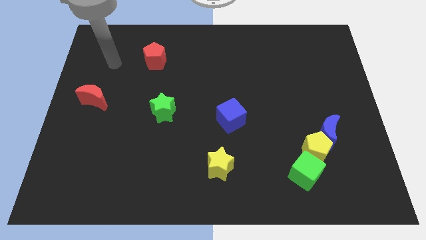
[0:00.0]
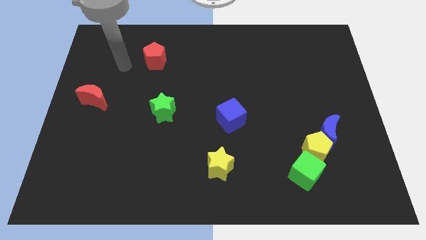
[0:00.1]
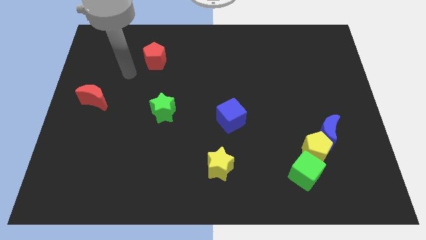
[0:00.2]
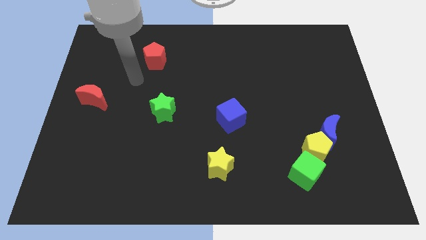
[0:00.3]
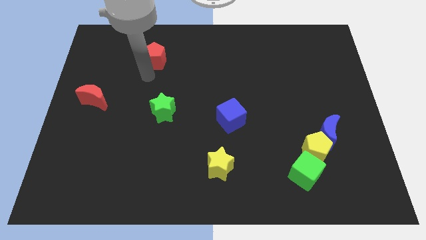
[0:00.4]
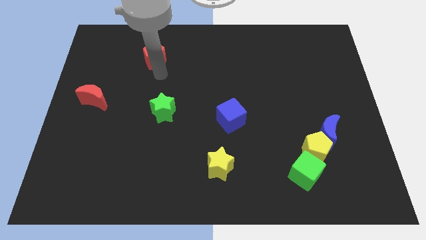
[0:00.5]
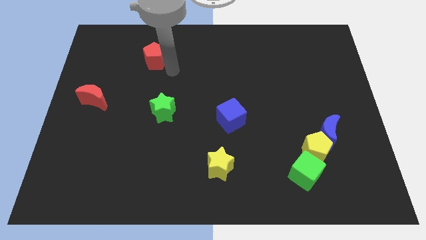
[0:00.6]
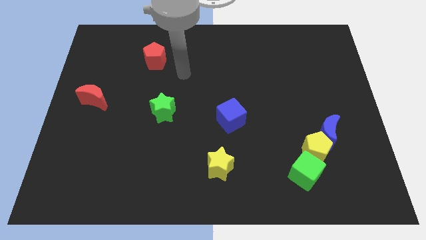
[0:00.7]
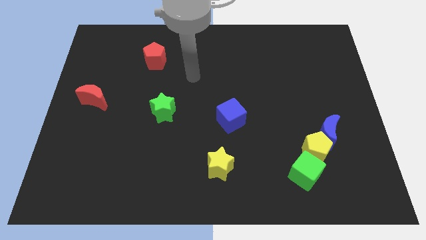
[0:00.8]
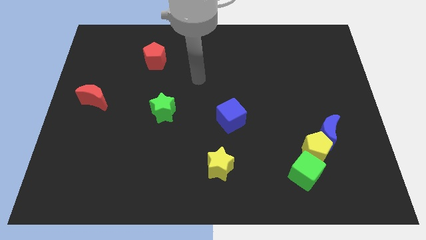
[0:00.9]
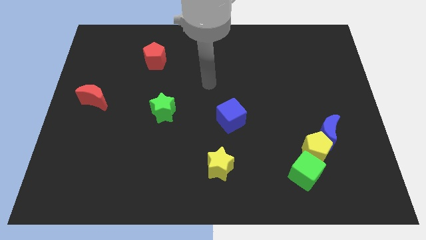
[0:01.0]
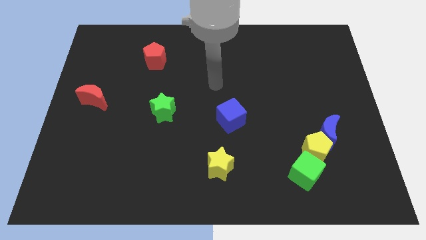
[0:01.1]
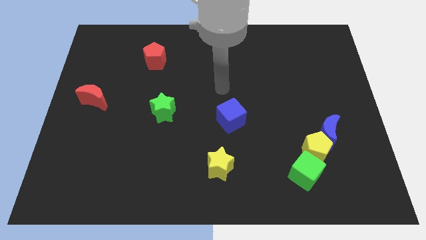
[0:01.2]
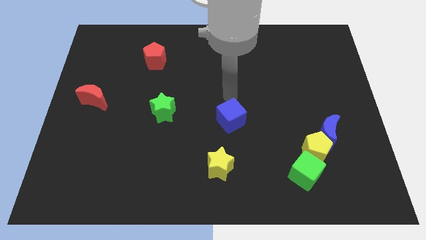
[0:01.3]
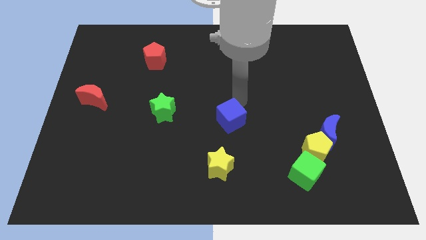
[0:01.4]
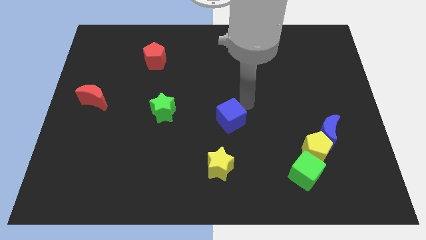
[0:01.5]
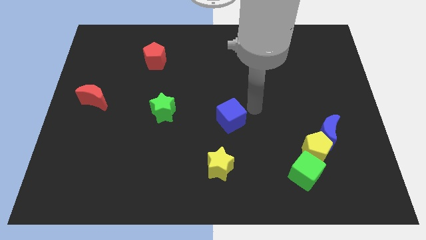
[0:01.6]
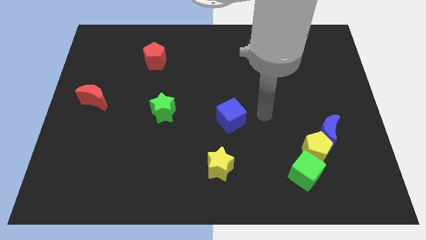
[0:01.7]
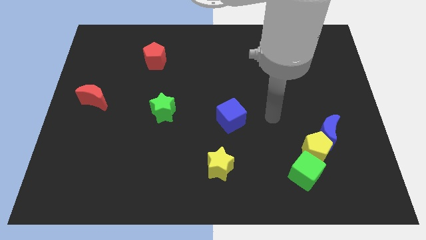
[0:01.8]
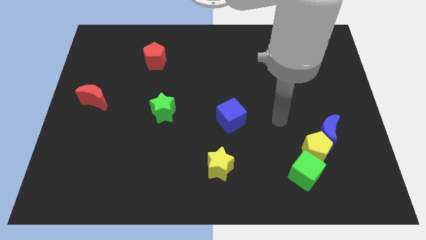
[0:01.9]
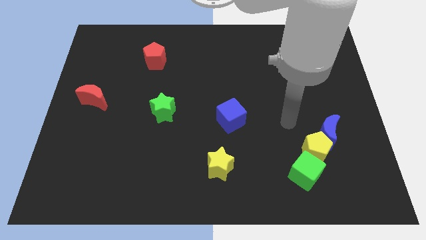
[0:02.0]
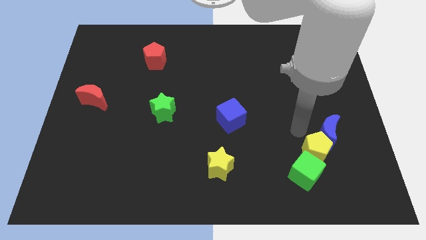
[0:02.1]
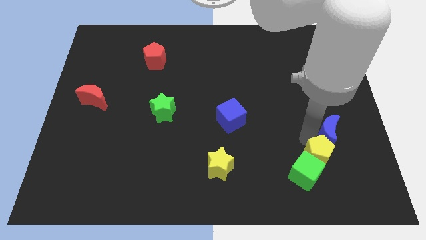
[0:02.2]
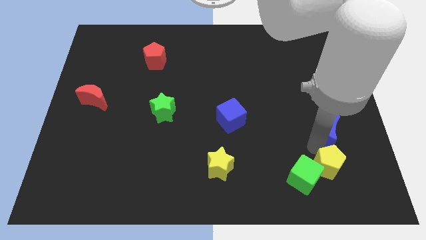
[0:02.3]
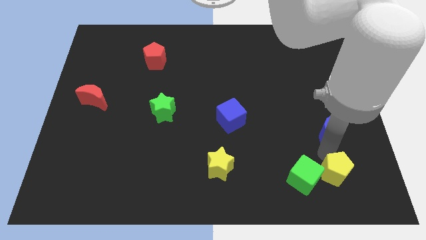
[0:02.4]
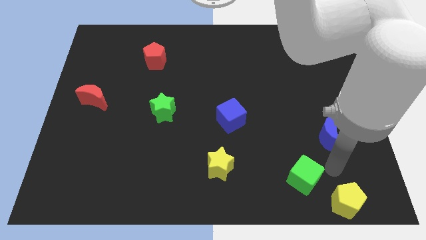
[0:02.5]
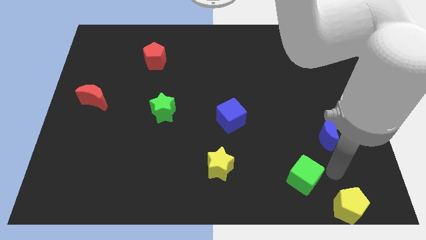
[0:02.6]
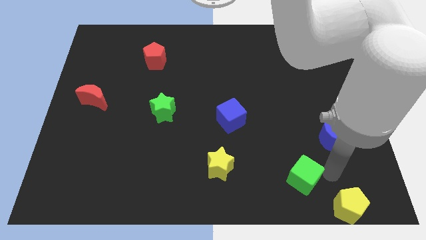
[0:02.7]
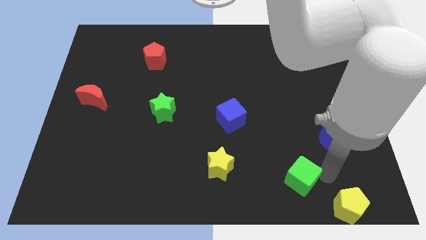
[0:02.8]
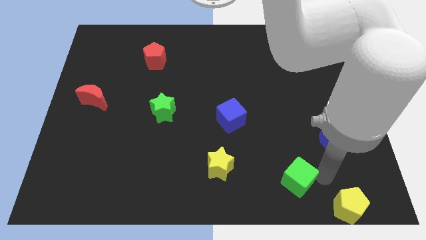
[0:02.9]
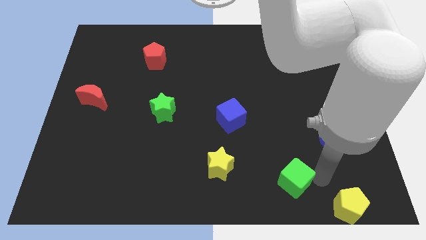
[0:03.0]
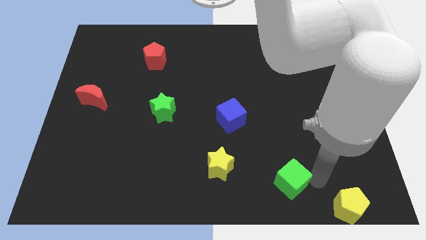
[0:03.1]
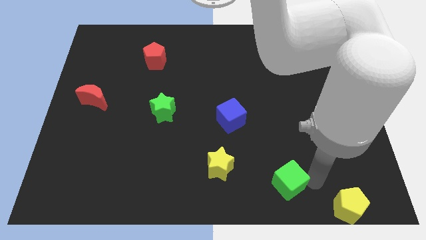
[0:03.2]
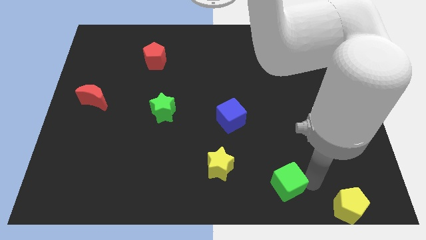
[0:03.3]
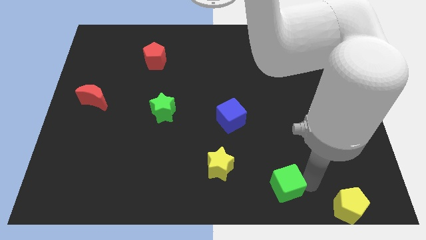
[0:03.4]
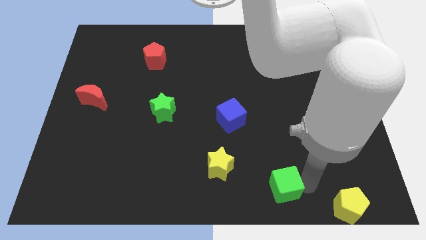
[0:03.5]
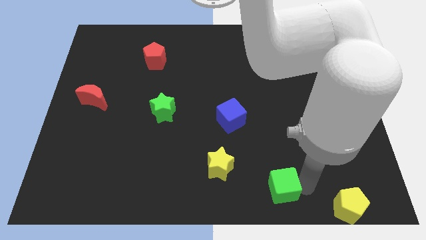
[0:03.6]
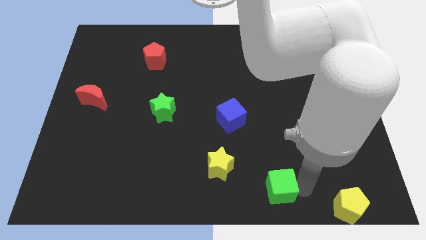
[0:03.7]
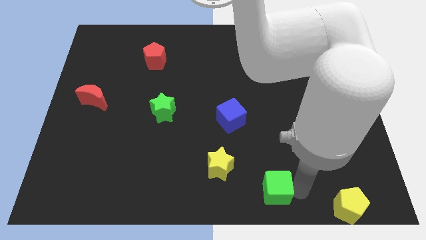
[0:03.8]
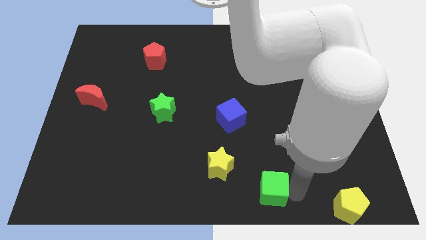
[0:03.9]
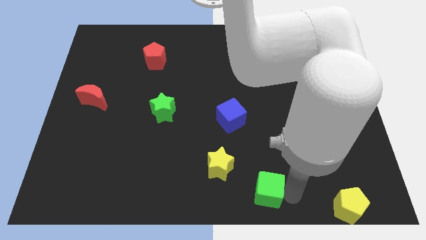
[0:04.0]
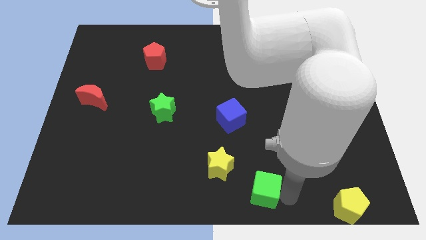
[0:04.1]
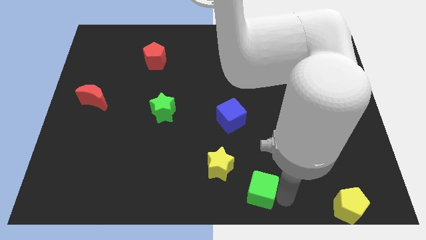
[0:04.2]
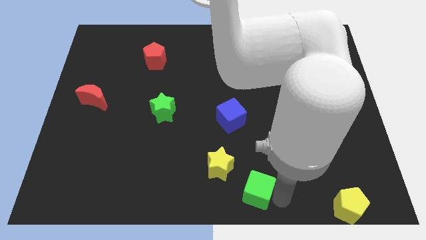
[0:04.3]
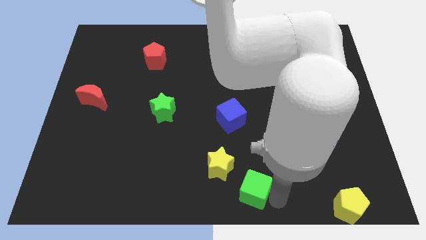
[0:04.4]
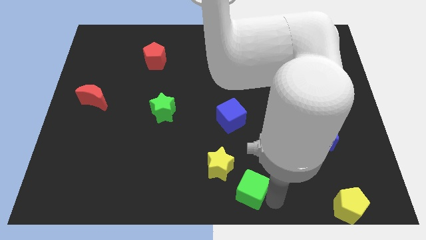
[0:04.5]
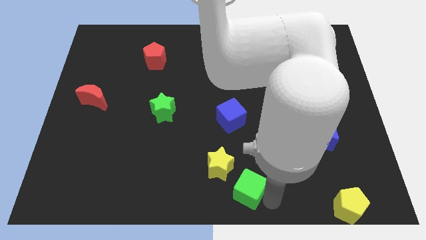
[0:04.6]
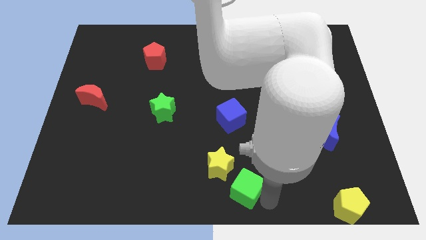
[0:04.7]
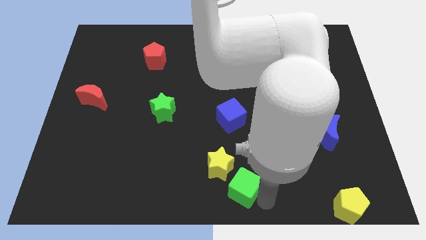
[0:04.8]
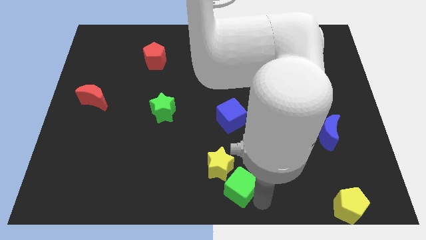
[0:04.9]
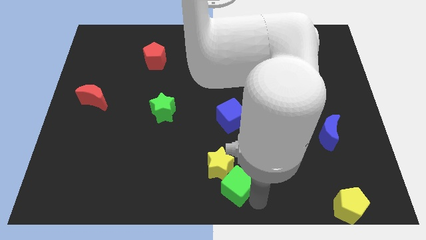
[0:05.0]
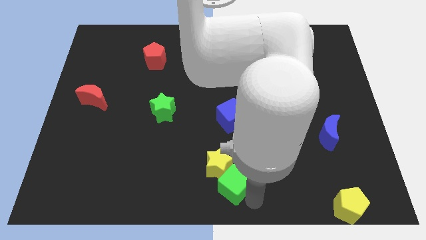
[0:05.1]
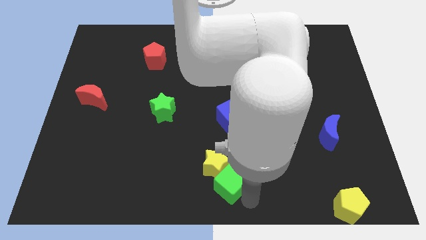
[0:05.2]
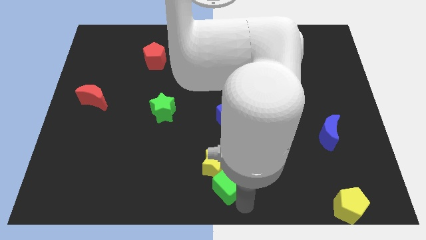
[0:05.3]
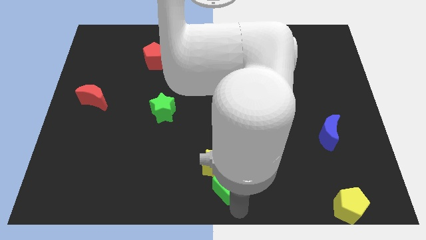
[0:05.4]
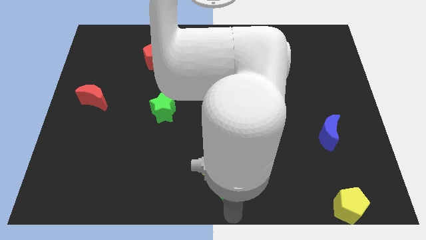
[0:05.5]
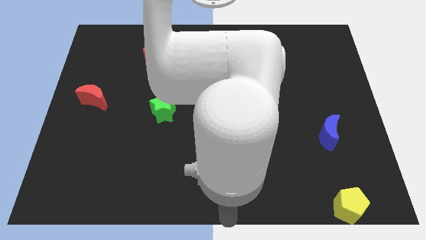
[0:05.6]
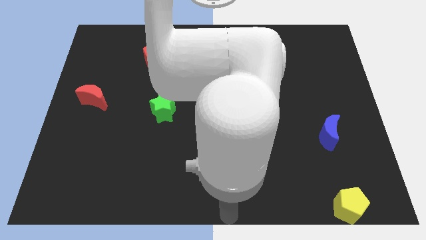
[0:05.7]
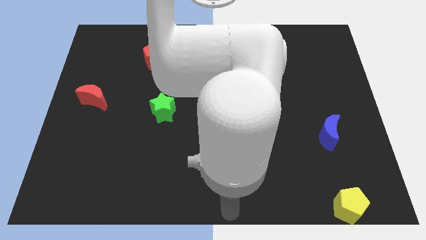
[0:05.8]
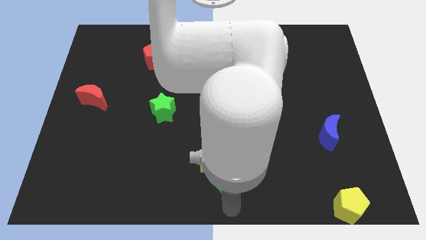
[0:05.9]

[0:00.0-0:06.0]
push the green cube below the blue cube

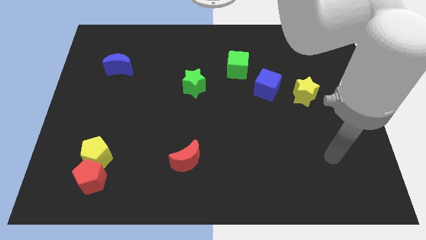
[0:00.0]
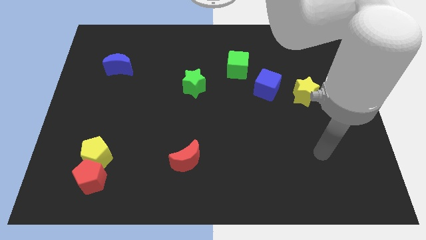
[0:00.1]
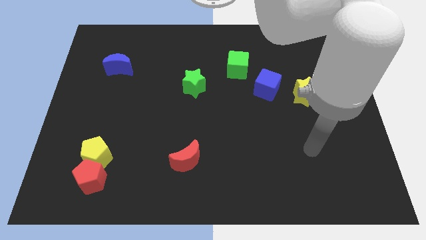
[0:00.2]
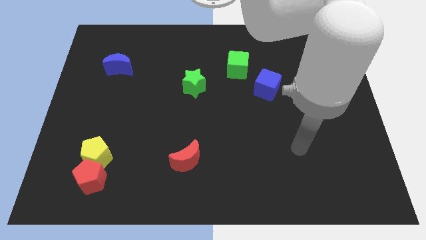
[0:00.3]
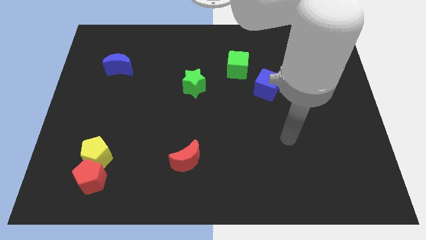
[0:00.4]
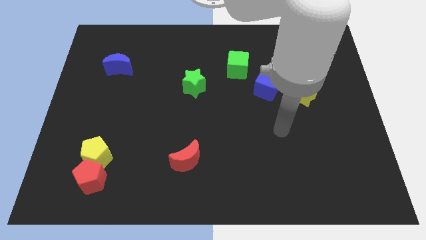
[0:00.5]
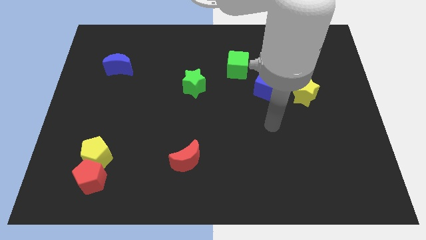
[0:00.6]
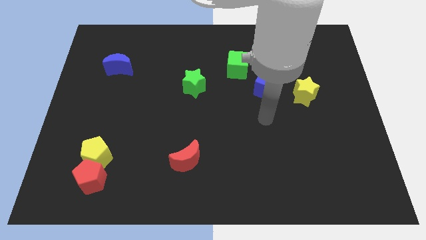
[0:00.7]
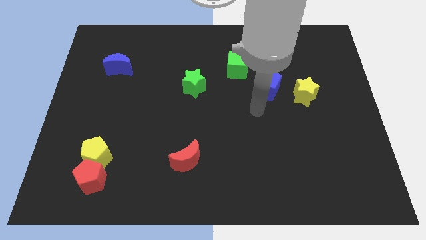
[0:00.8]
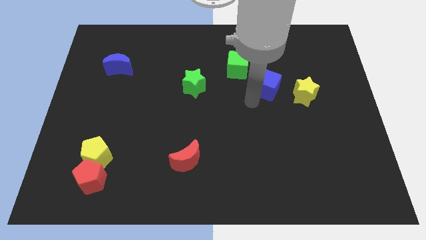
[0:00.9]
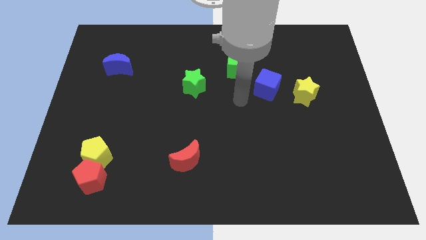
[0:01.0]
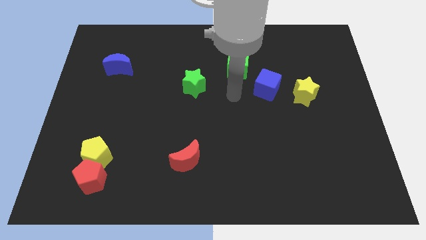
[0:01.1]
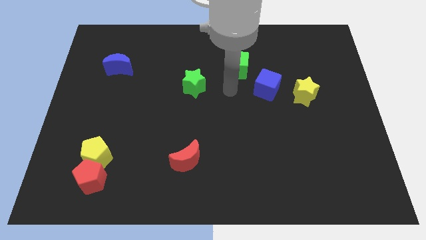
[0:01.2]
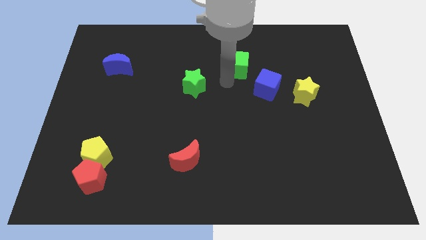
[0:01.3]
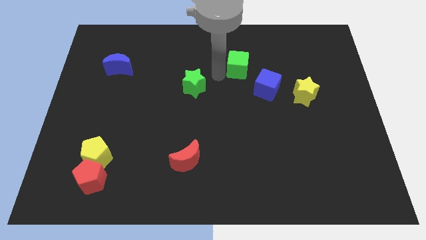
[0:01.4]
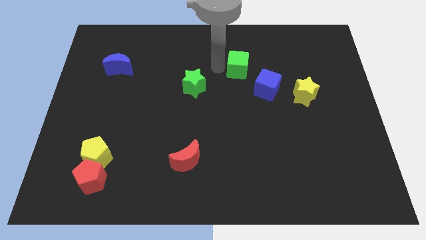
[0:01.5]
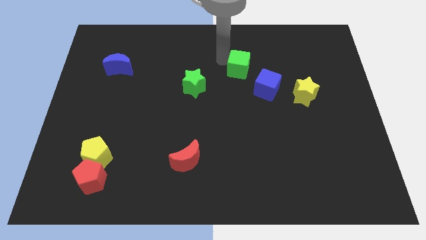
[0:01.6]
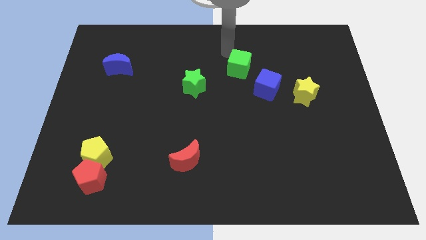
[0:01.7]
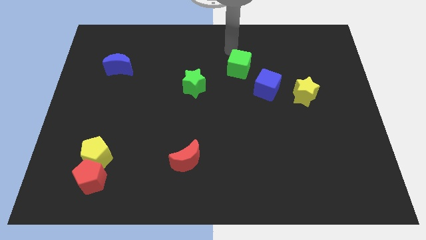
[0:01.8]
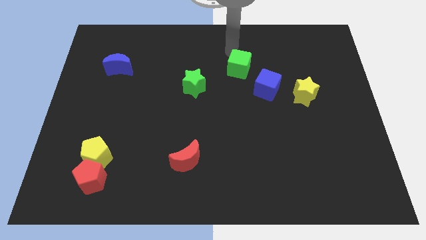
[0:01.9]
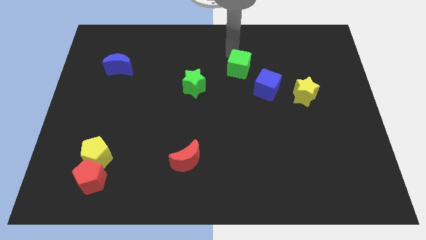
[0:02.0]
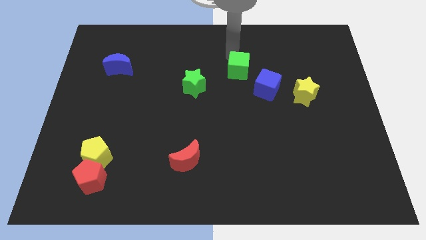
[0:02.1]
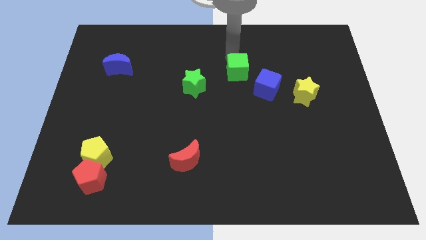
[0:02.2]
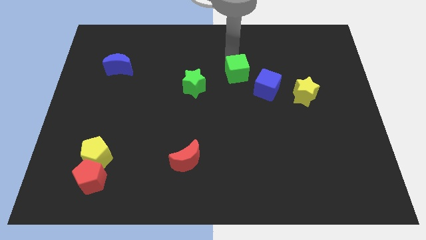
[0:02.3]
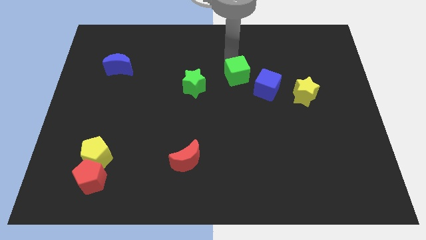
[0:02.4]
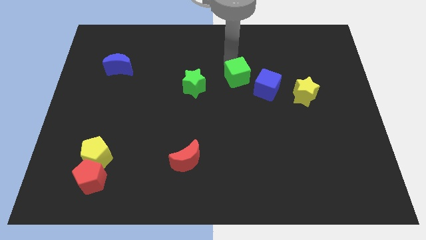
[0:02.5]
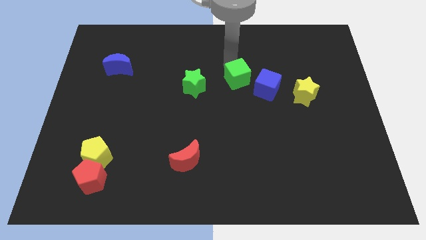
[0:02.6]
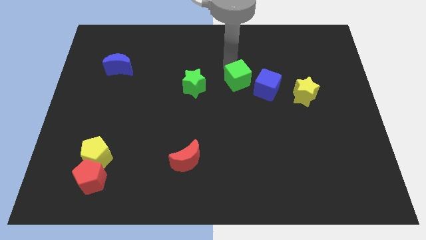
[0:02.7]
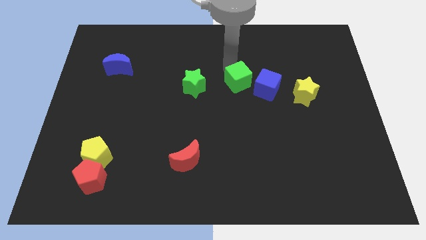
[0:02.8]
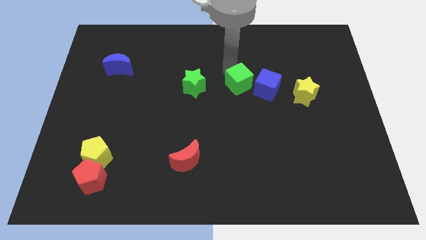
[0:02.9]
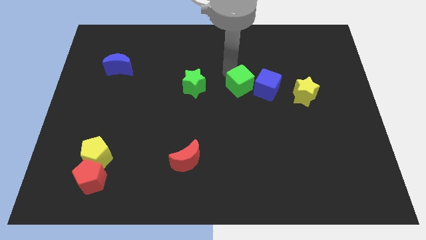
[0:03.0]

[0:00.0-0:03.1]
put the green cube left of the yellow star
